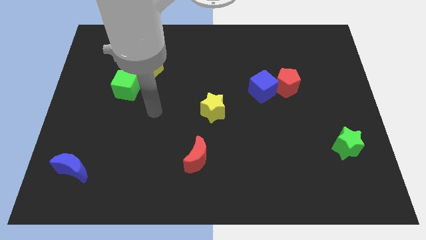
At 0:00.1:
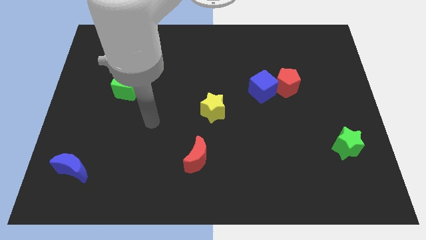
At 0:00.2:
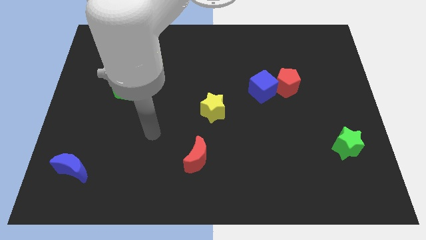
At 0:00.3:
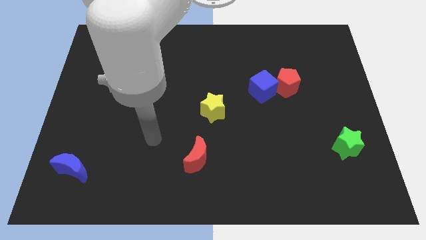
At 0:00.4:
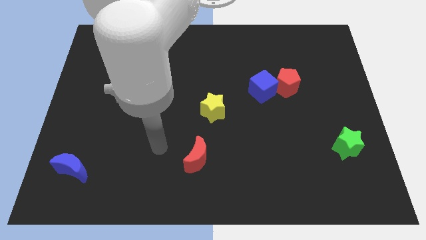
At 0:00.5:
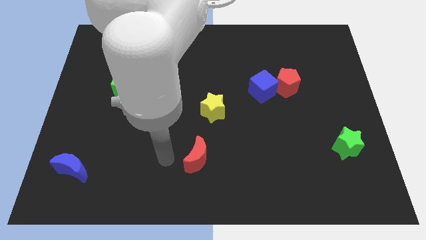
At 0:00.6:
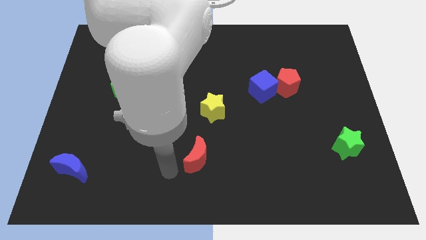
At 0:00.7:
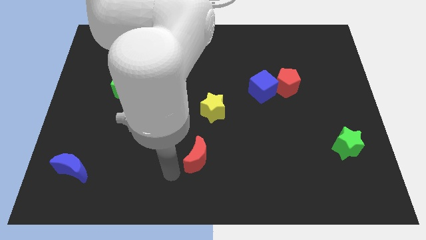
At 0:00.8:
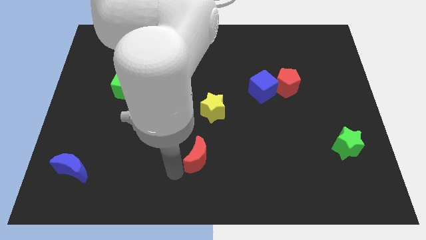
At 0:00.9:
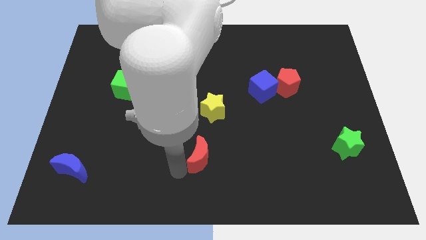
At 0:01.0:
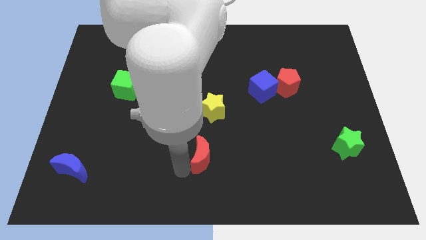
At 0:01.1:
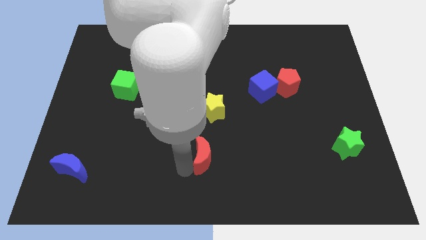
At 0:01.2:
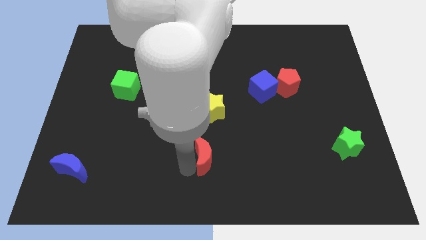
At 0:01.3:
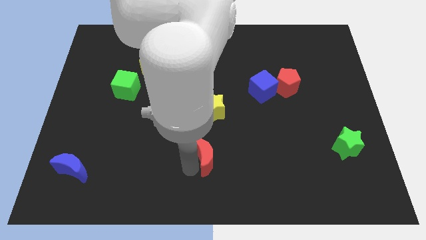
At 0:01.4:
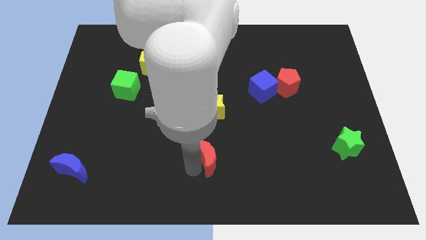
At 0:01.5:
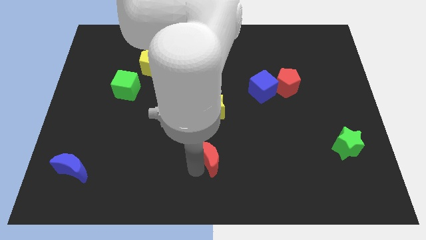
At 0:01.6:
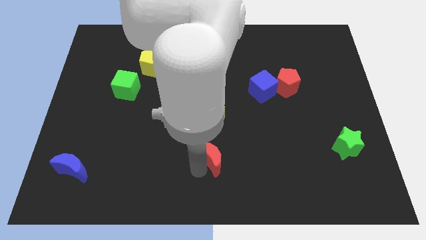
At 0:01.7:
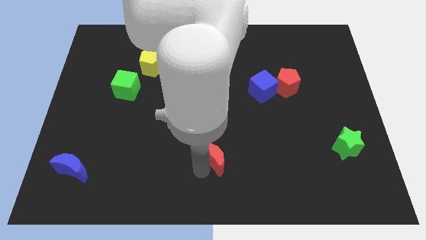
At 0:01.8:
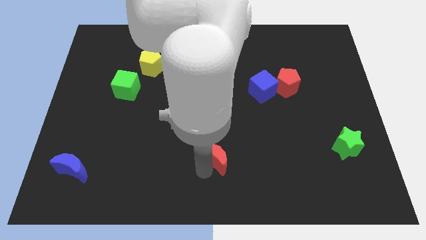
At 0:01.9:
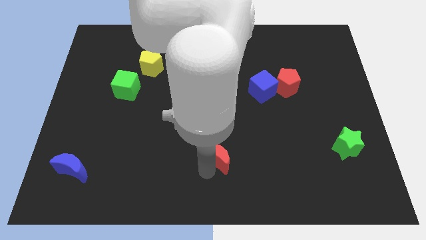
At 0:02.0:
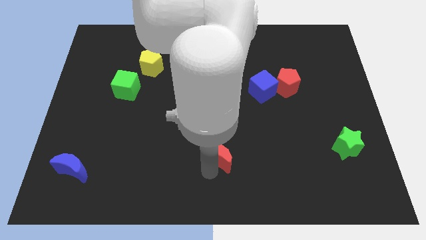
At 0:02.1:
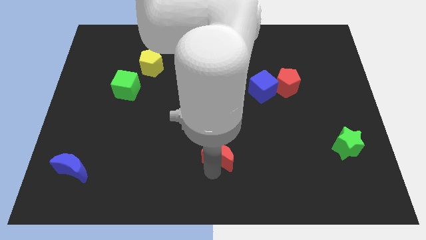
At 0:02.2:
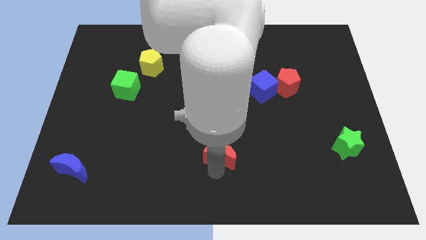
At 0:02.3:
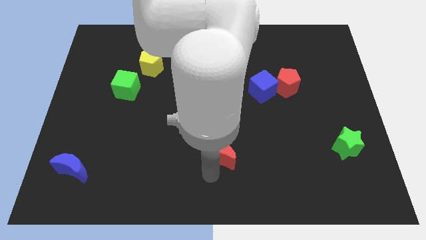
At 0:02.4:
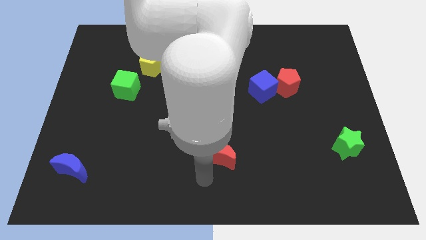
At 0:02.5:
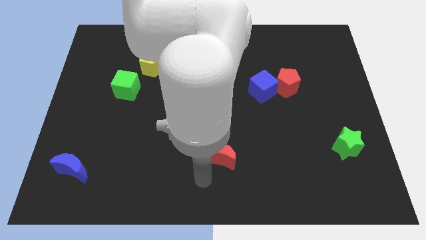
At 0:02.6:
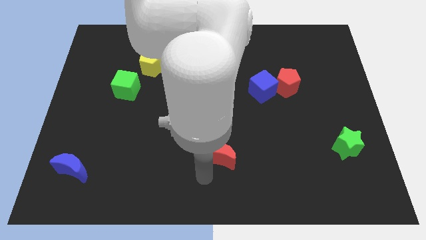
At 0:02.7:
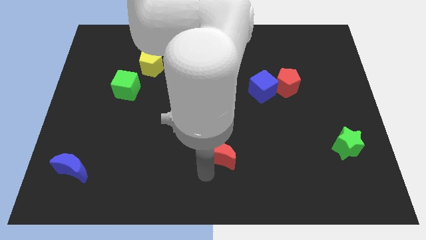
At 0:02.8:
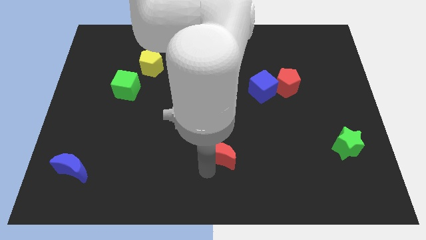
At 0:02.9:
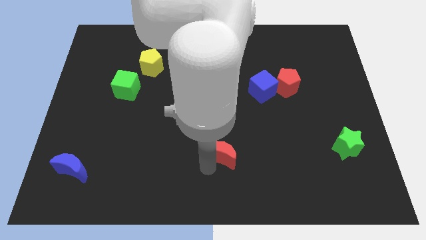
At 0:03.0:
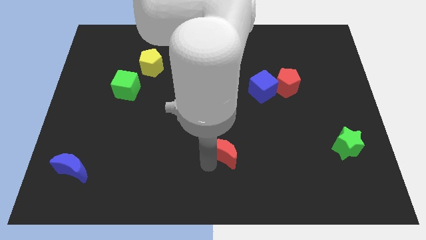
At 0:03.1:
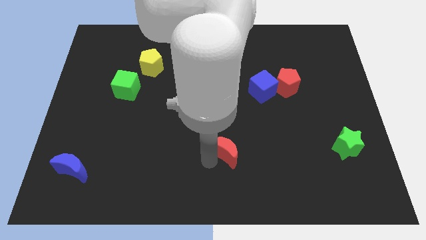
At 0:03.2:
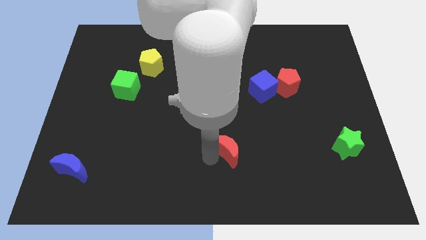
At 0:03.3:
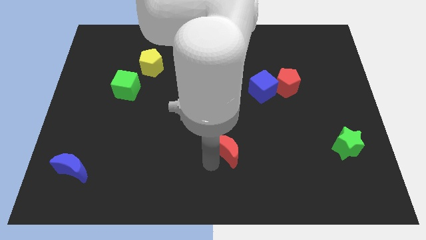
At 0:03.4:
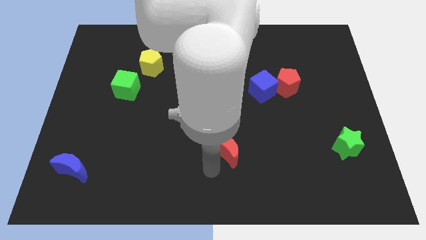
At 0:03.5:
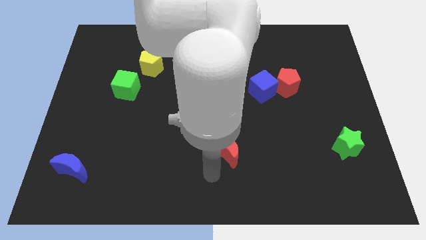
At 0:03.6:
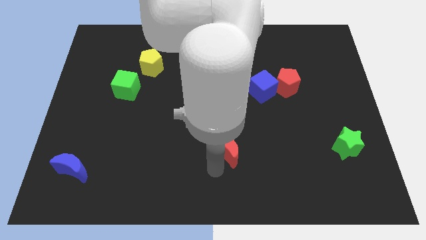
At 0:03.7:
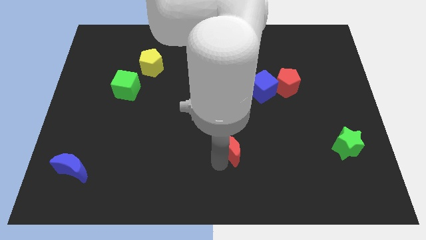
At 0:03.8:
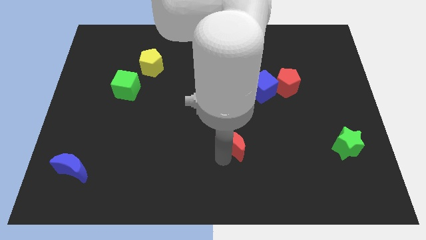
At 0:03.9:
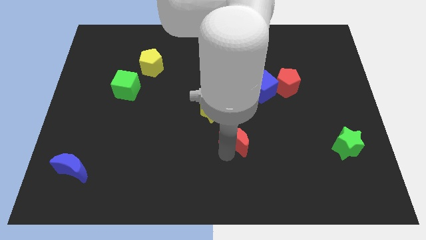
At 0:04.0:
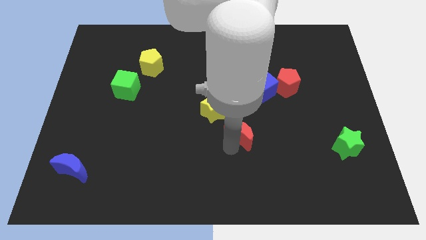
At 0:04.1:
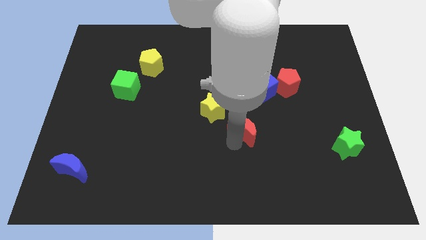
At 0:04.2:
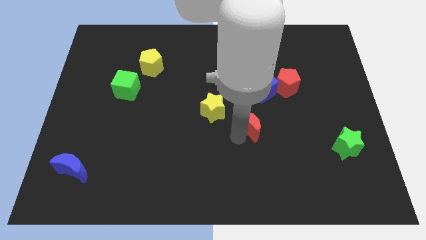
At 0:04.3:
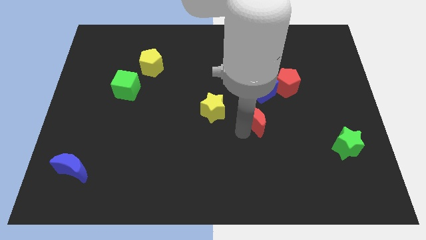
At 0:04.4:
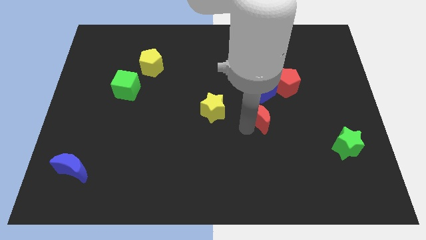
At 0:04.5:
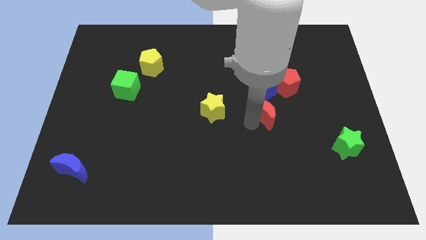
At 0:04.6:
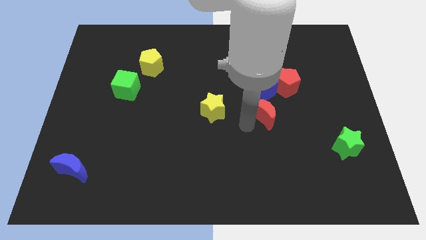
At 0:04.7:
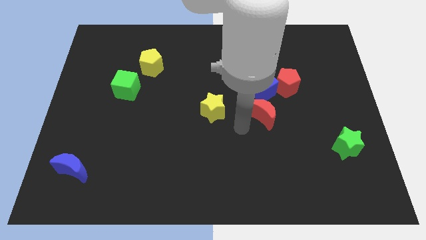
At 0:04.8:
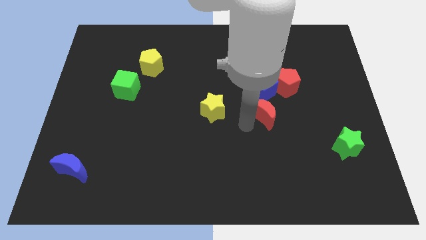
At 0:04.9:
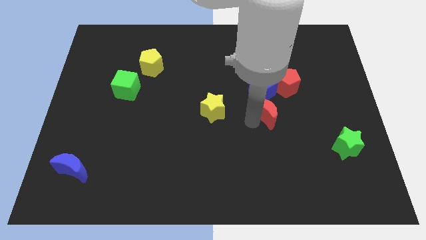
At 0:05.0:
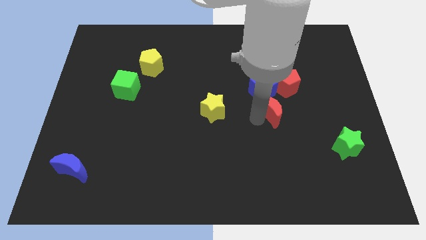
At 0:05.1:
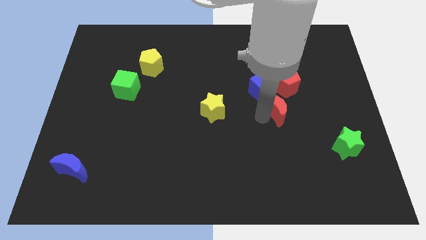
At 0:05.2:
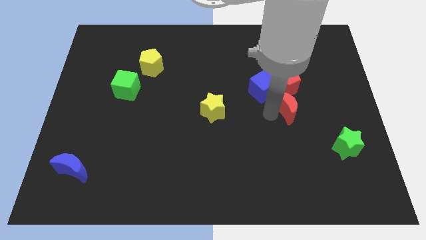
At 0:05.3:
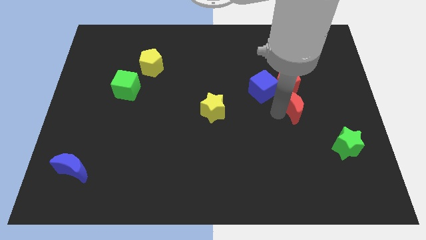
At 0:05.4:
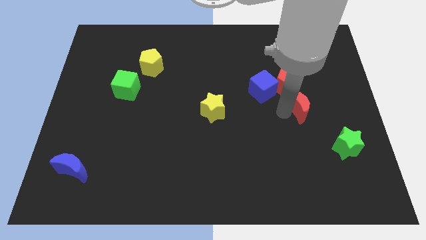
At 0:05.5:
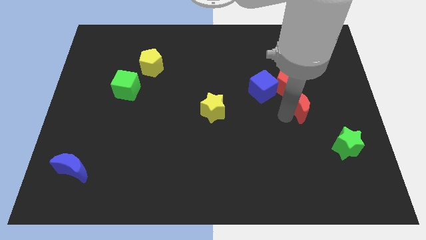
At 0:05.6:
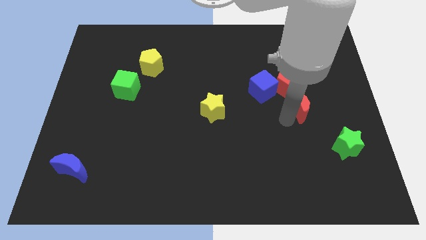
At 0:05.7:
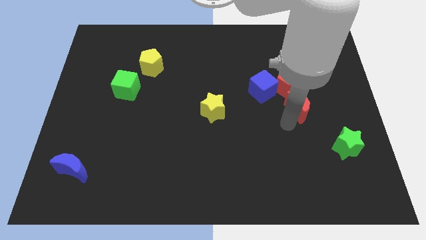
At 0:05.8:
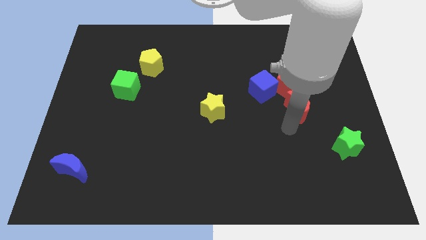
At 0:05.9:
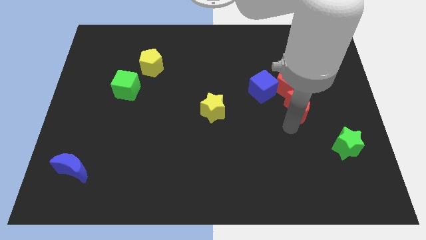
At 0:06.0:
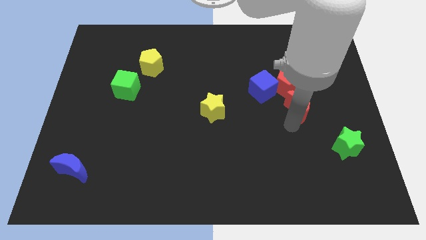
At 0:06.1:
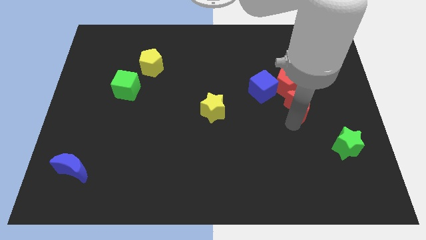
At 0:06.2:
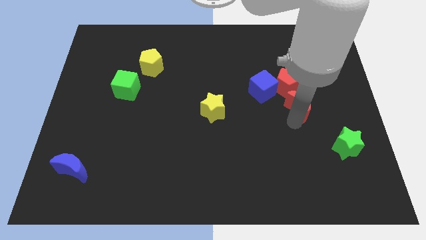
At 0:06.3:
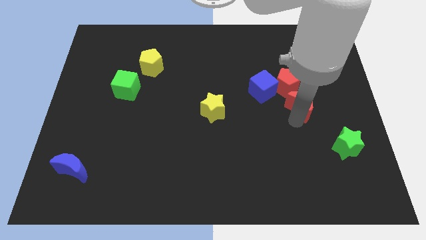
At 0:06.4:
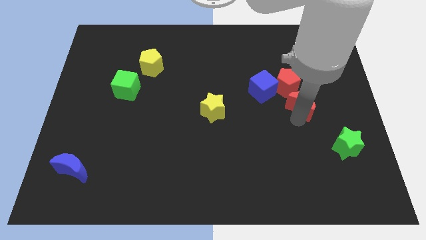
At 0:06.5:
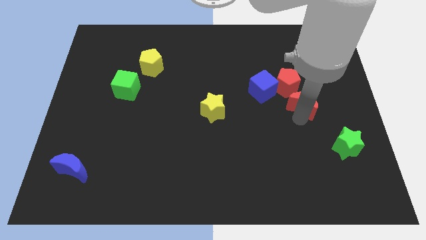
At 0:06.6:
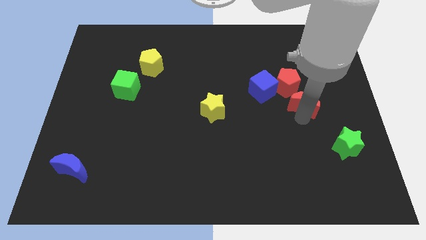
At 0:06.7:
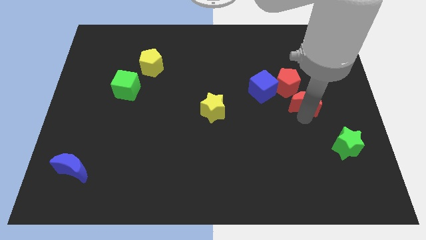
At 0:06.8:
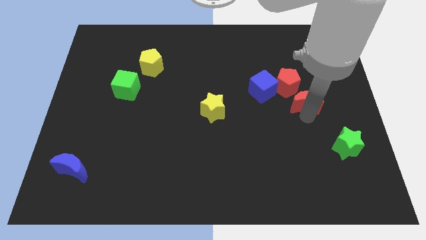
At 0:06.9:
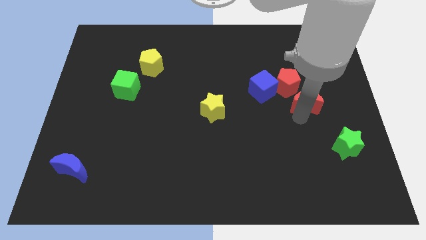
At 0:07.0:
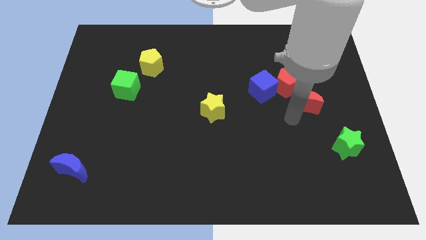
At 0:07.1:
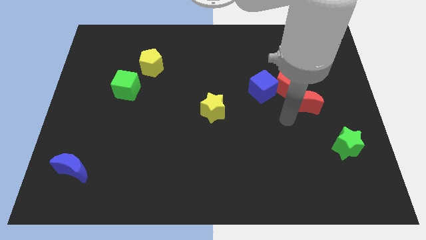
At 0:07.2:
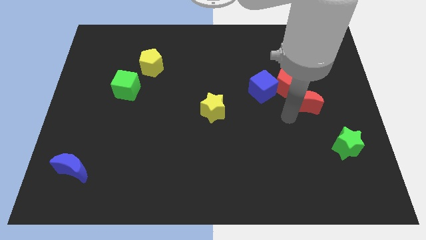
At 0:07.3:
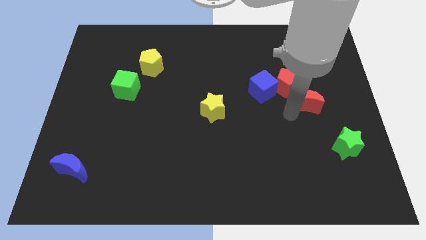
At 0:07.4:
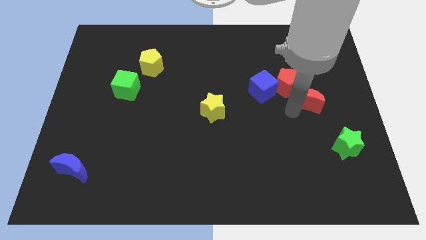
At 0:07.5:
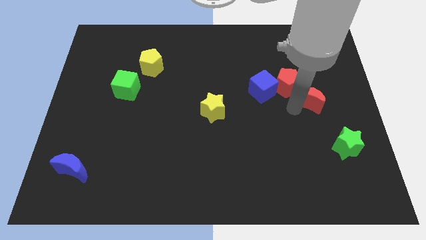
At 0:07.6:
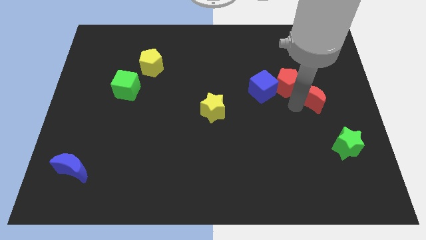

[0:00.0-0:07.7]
push the red moon just right of the red pentagon

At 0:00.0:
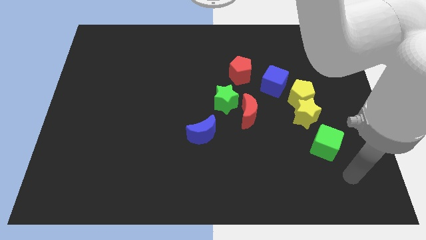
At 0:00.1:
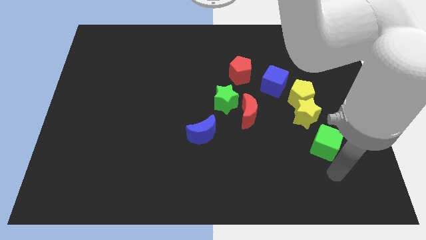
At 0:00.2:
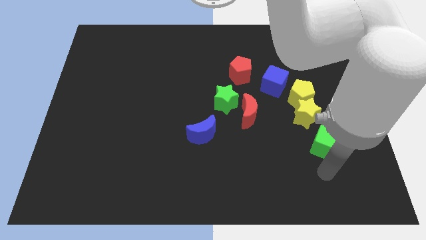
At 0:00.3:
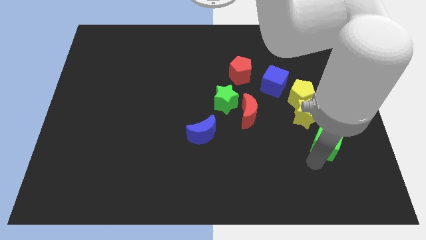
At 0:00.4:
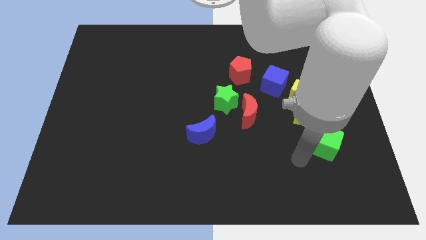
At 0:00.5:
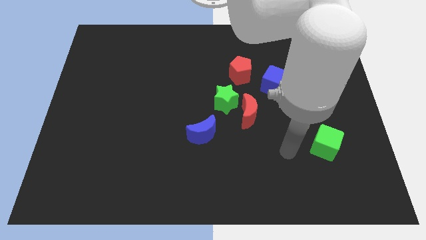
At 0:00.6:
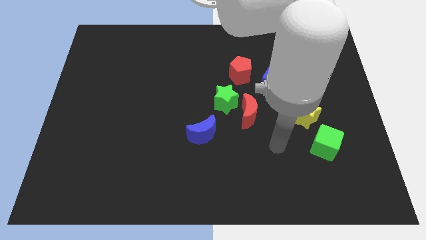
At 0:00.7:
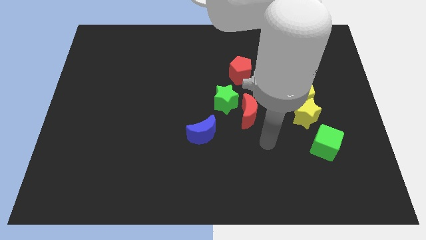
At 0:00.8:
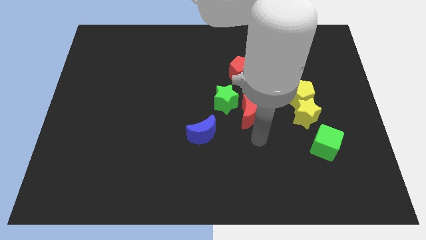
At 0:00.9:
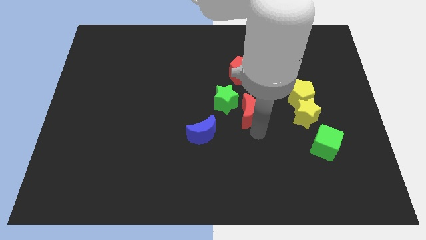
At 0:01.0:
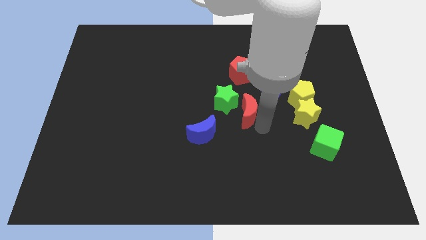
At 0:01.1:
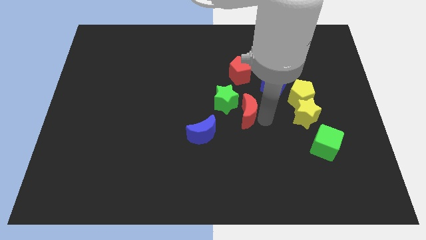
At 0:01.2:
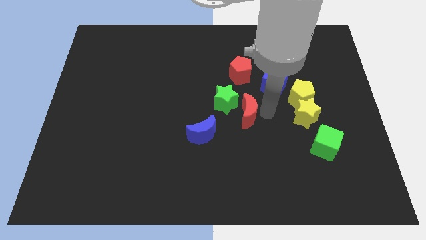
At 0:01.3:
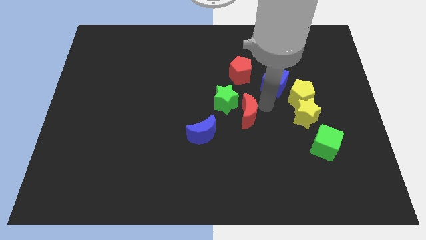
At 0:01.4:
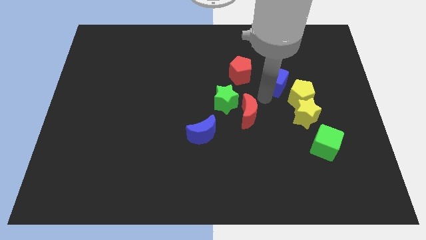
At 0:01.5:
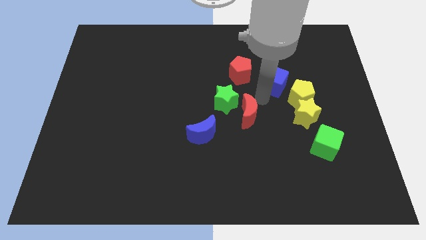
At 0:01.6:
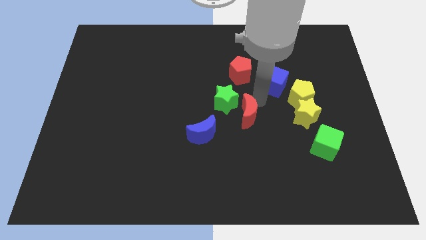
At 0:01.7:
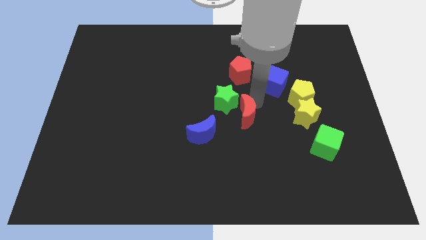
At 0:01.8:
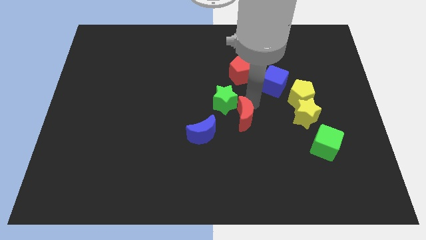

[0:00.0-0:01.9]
put the red moon to the bottom of the green star
